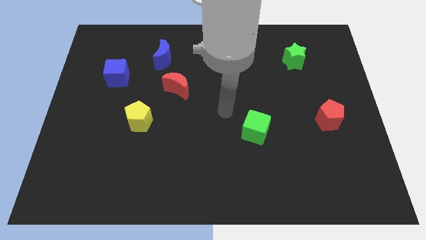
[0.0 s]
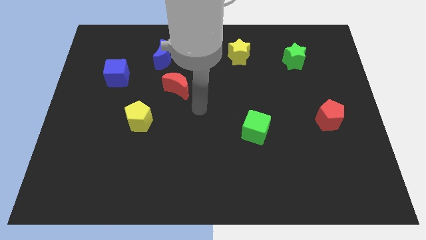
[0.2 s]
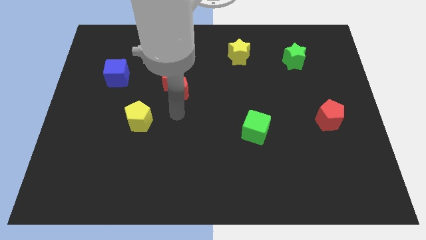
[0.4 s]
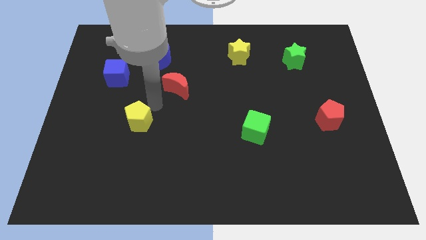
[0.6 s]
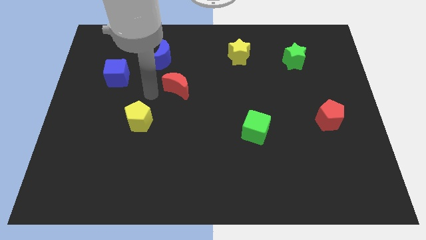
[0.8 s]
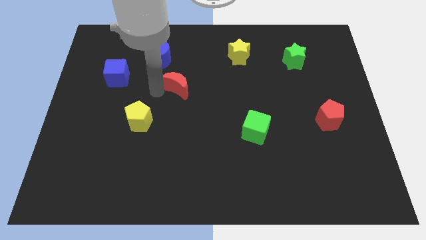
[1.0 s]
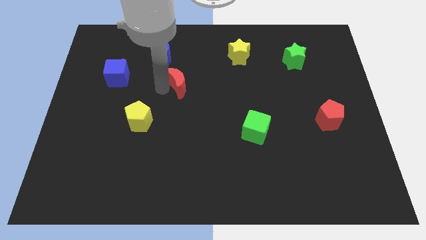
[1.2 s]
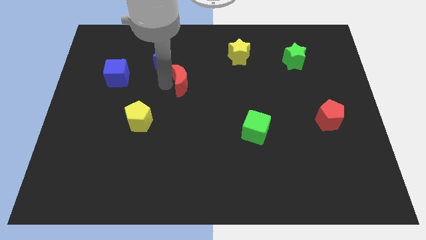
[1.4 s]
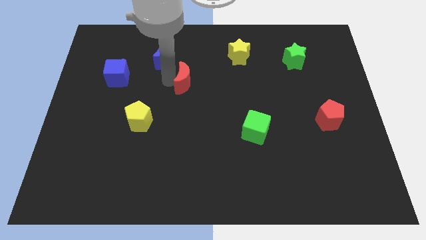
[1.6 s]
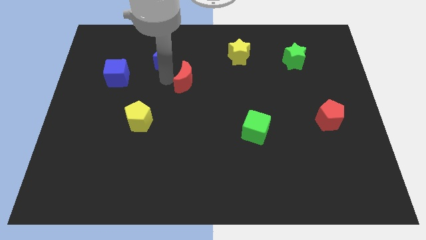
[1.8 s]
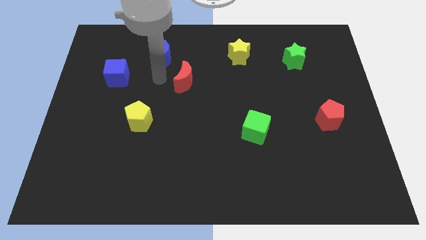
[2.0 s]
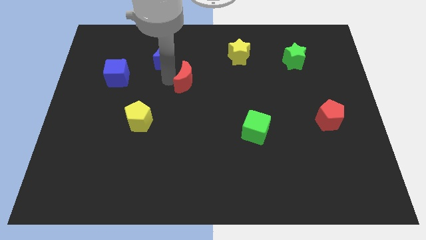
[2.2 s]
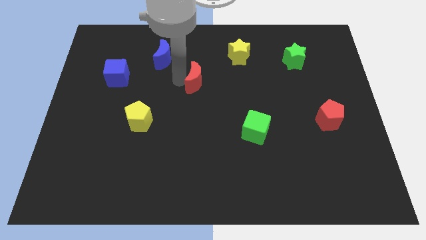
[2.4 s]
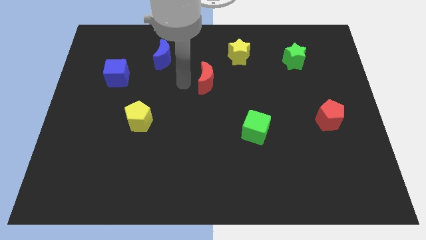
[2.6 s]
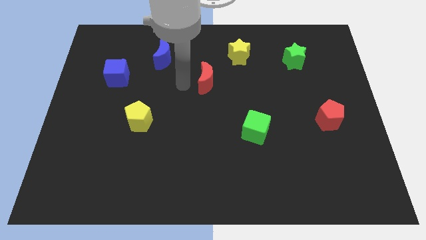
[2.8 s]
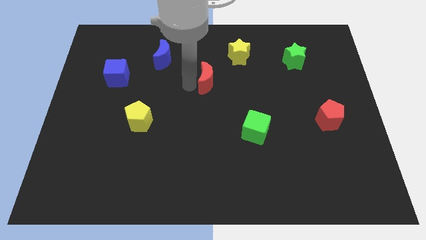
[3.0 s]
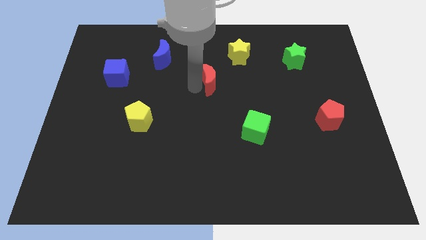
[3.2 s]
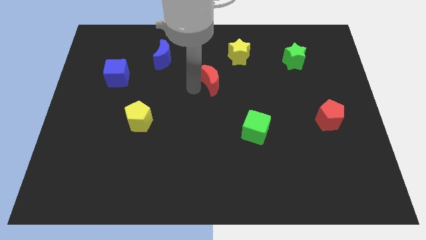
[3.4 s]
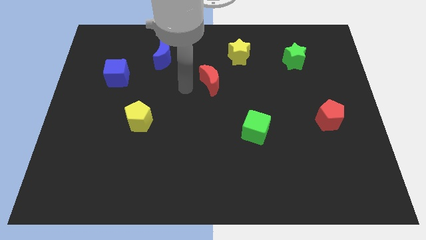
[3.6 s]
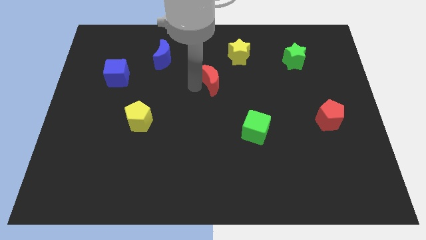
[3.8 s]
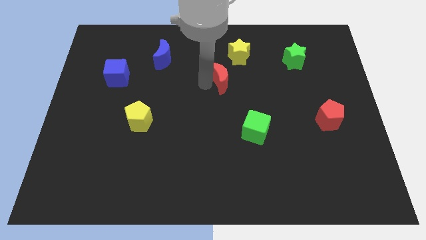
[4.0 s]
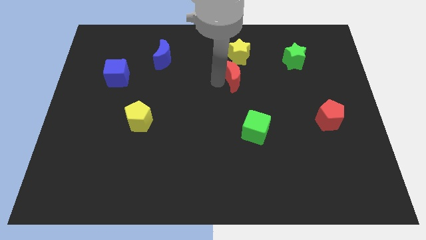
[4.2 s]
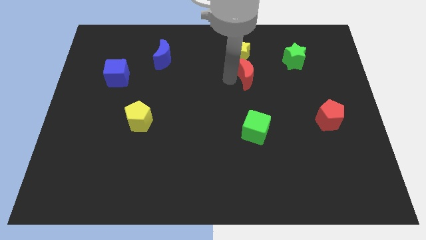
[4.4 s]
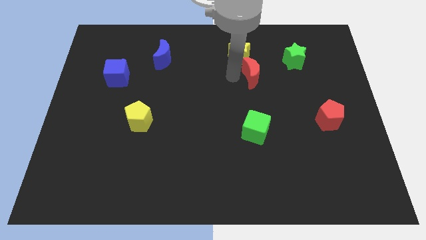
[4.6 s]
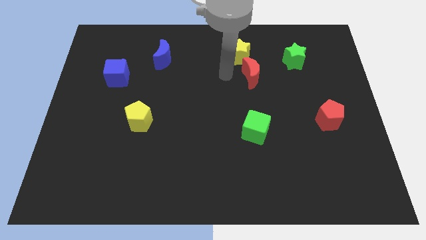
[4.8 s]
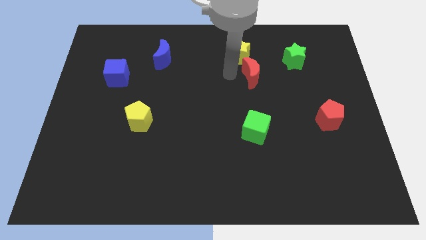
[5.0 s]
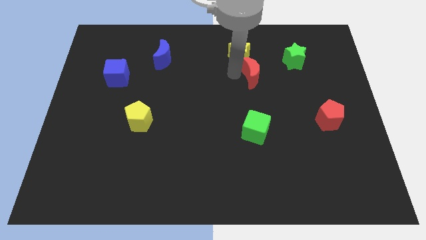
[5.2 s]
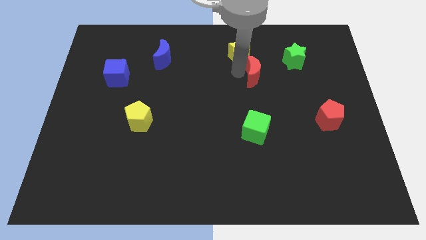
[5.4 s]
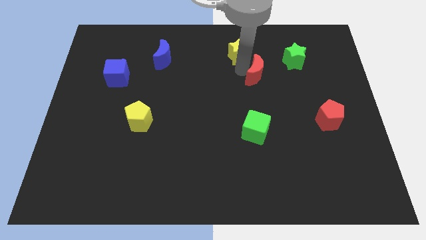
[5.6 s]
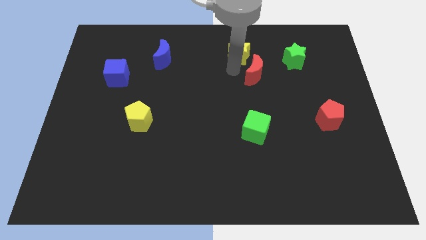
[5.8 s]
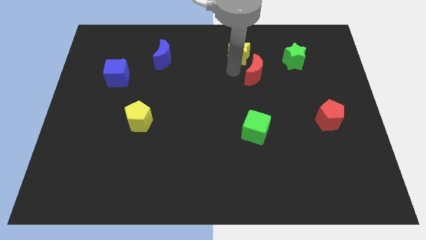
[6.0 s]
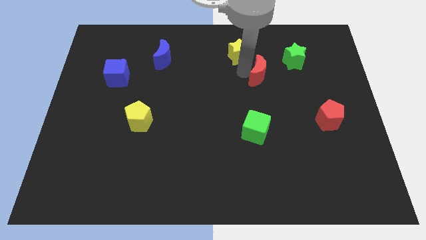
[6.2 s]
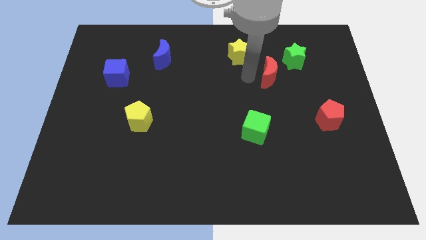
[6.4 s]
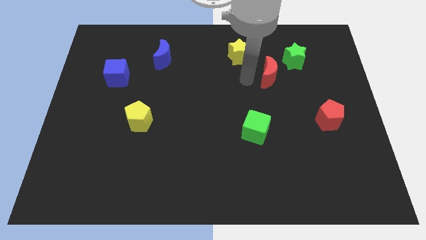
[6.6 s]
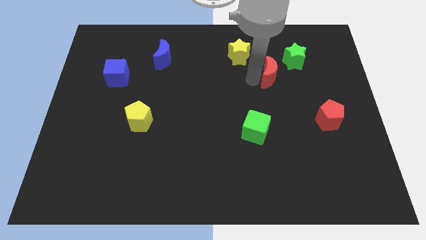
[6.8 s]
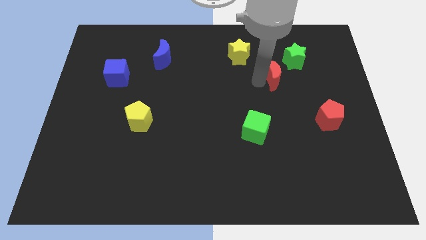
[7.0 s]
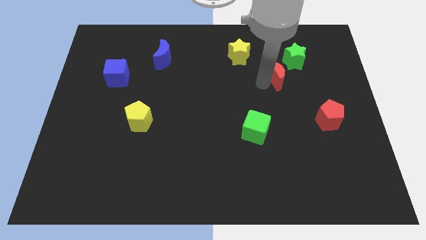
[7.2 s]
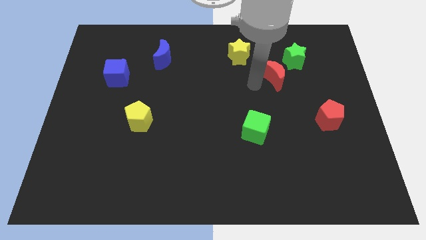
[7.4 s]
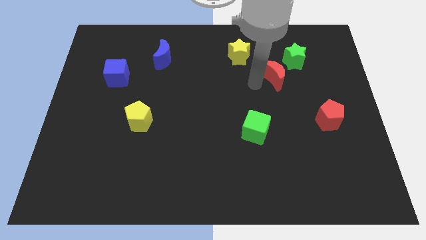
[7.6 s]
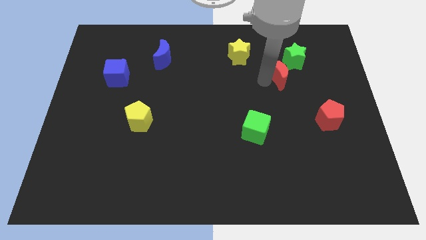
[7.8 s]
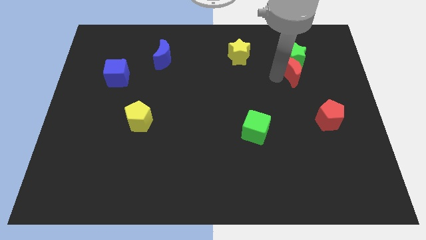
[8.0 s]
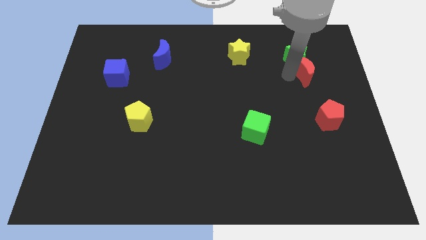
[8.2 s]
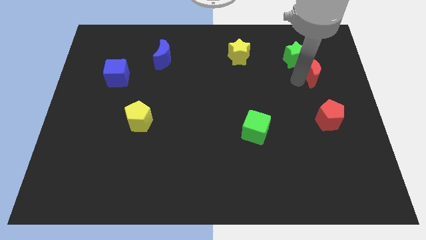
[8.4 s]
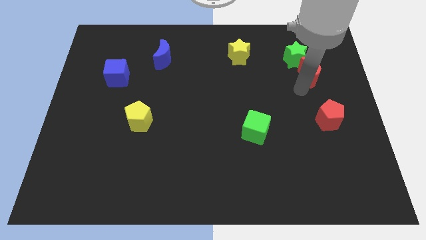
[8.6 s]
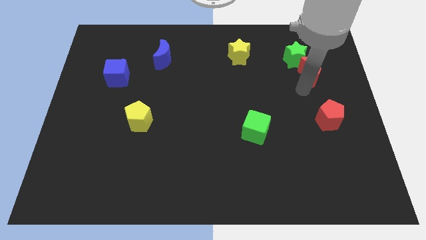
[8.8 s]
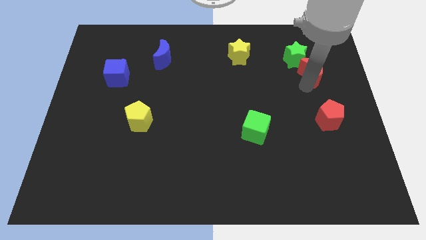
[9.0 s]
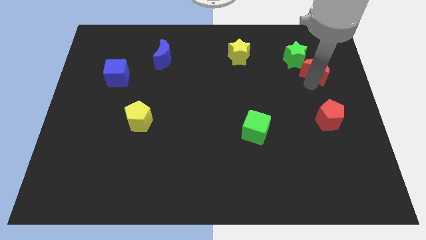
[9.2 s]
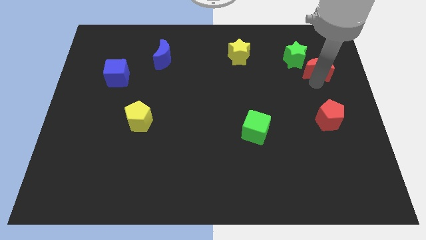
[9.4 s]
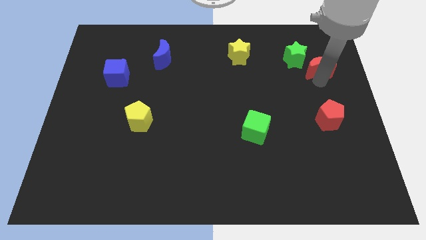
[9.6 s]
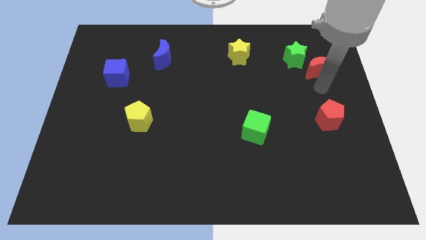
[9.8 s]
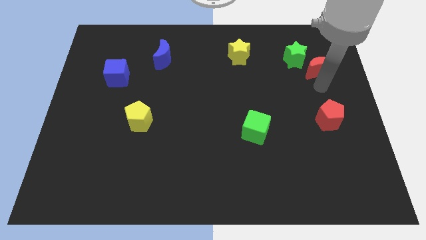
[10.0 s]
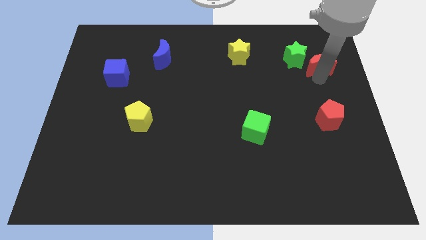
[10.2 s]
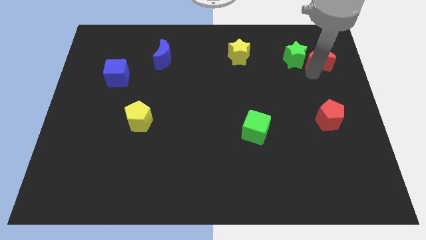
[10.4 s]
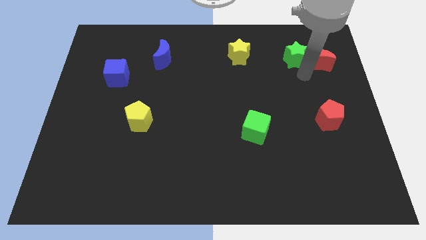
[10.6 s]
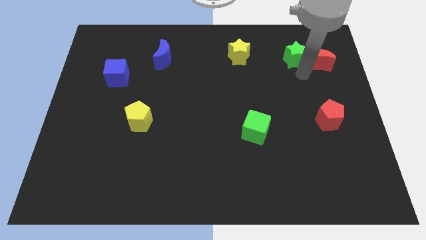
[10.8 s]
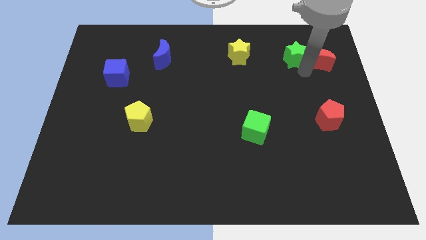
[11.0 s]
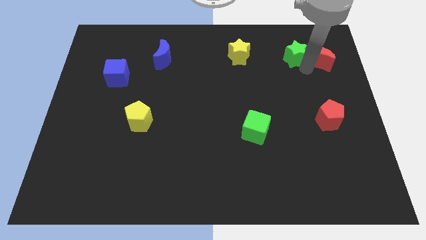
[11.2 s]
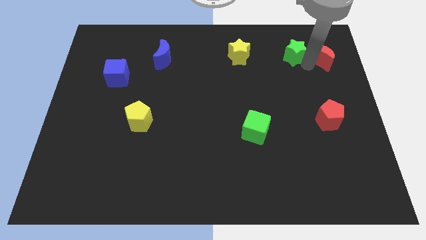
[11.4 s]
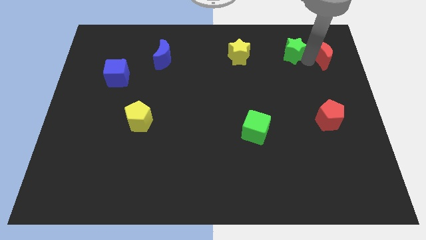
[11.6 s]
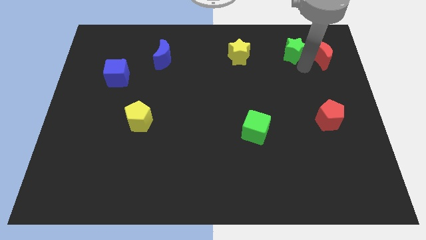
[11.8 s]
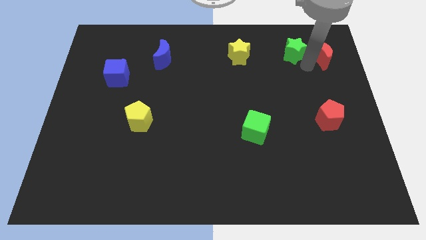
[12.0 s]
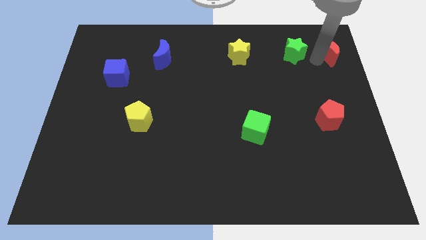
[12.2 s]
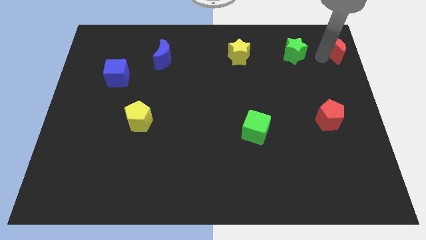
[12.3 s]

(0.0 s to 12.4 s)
put the red moon to the upper right corner

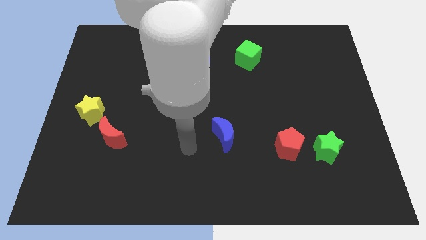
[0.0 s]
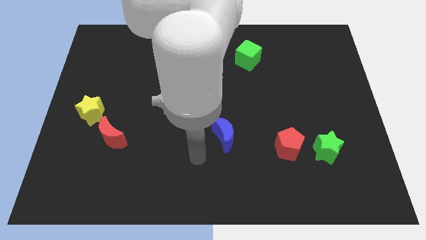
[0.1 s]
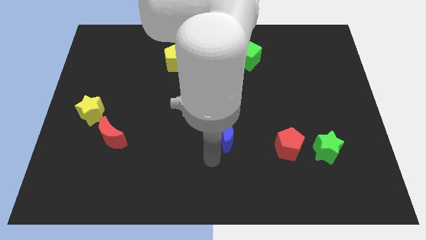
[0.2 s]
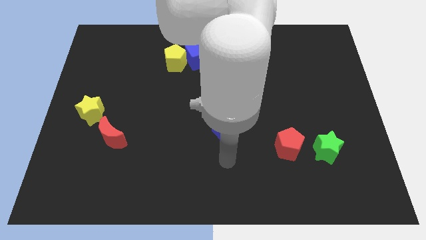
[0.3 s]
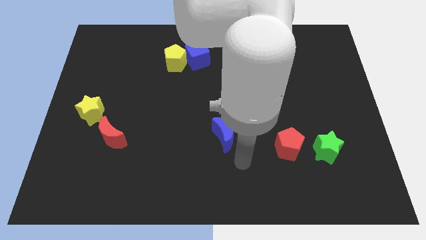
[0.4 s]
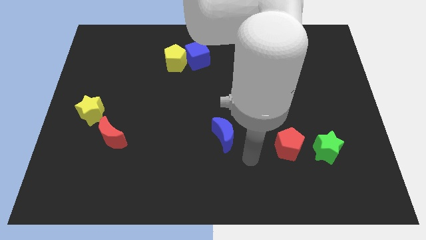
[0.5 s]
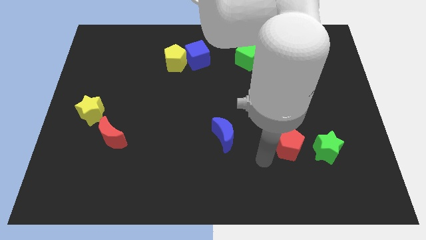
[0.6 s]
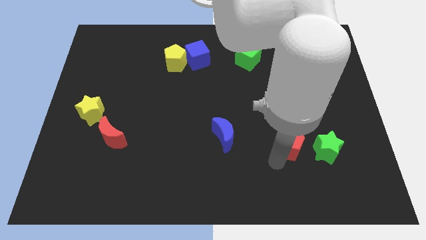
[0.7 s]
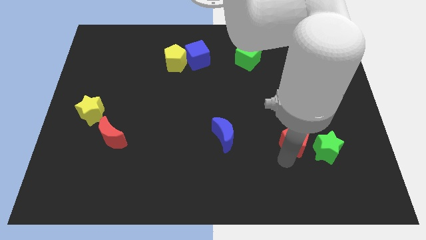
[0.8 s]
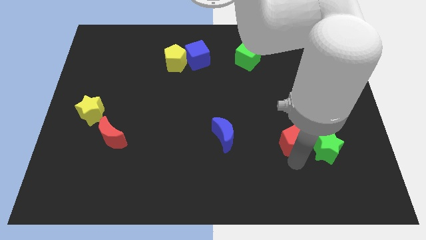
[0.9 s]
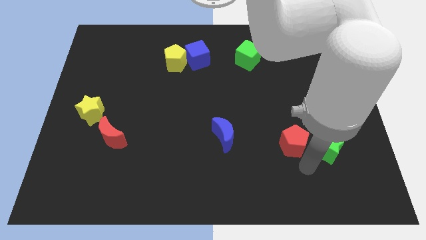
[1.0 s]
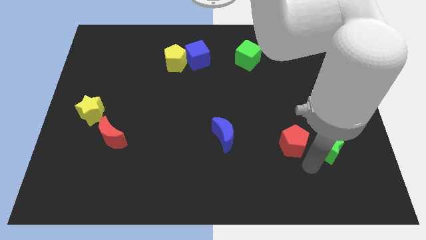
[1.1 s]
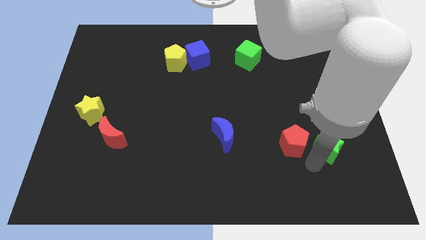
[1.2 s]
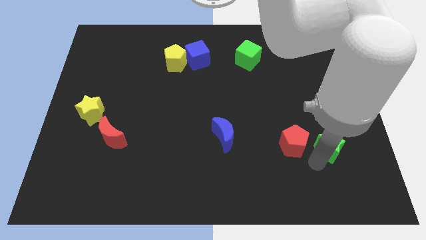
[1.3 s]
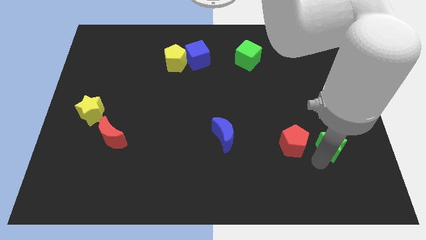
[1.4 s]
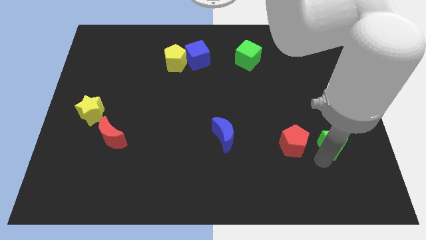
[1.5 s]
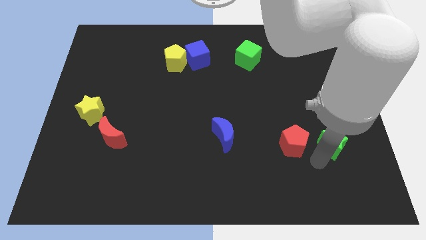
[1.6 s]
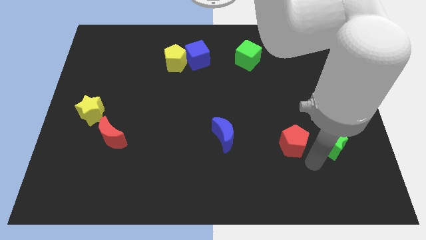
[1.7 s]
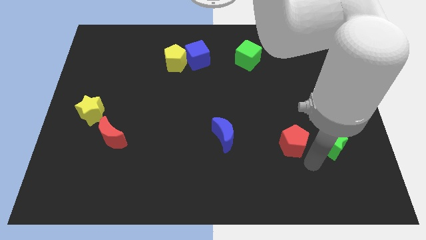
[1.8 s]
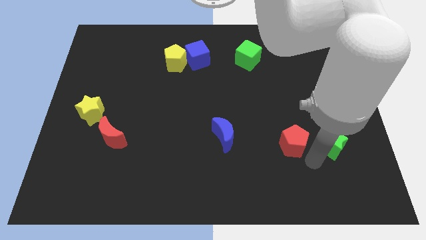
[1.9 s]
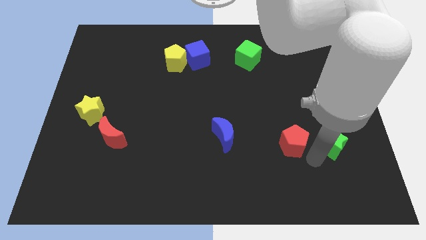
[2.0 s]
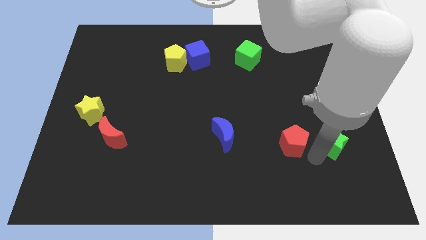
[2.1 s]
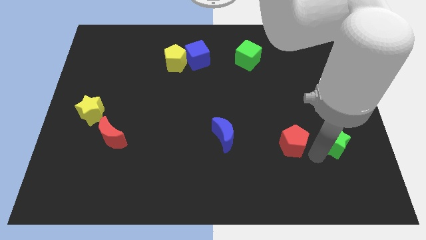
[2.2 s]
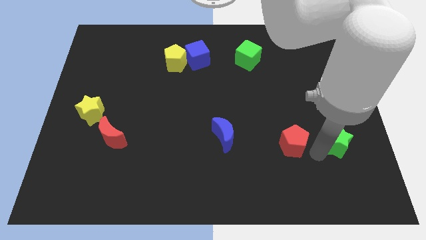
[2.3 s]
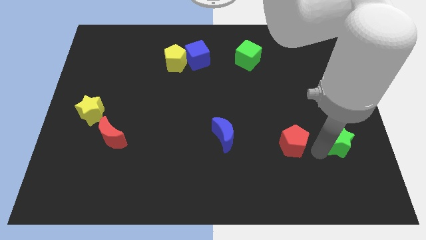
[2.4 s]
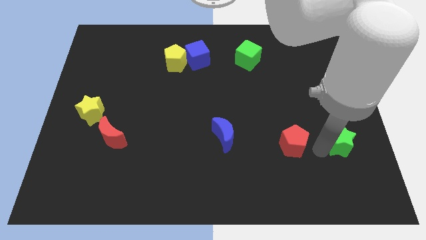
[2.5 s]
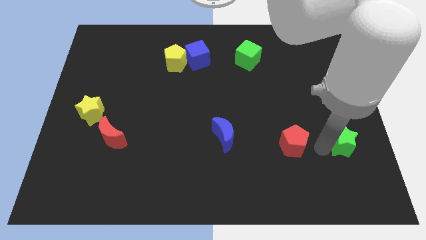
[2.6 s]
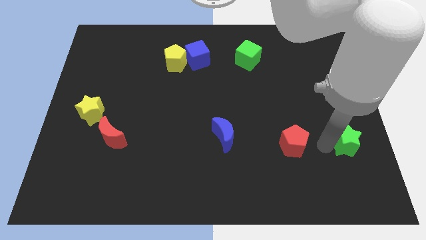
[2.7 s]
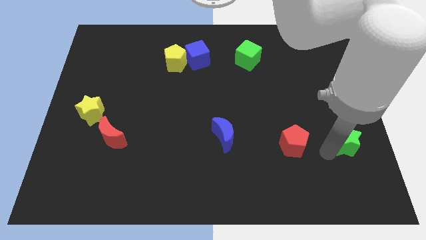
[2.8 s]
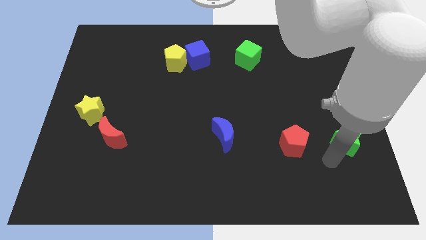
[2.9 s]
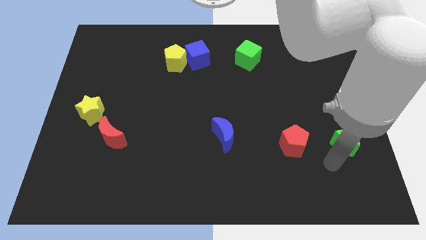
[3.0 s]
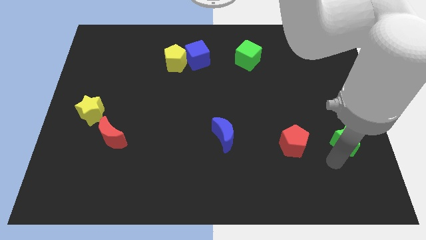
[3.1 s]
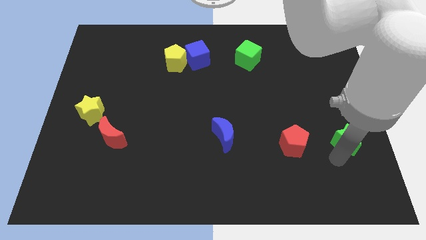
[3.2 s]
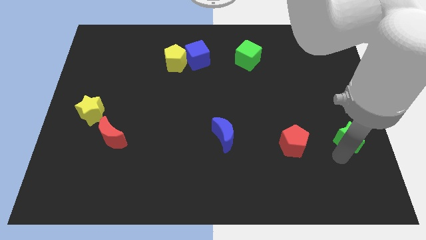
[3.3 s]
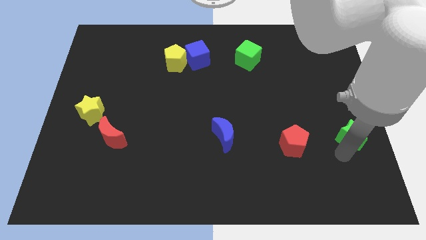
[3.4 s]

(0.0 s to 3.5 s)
slide the green star to the right side
